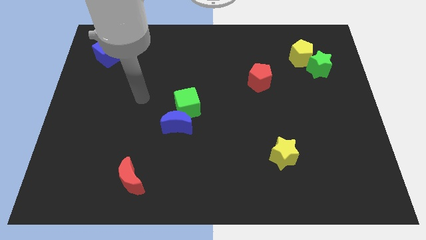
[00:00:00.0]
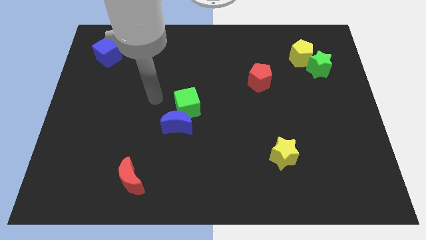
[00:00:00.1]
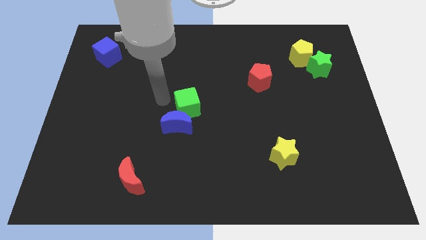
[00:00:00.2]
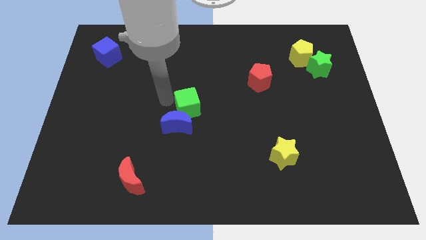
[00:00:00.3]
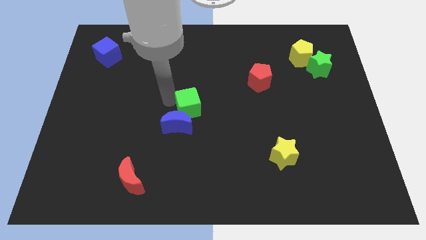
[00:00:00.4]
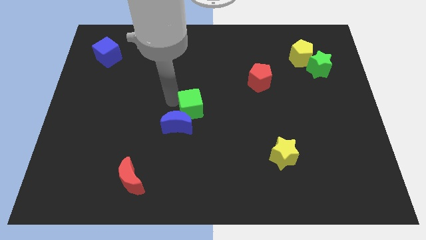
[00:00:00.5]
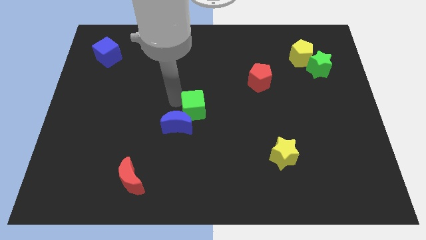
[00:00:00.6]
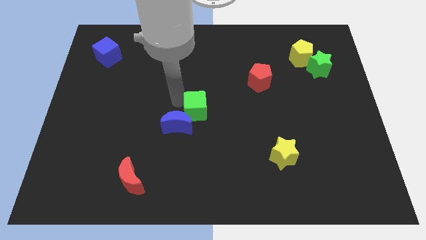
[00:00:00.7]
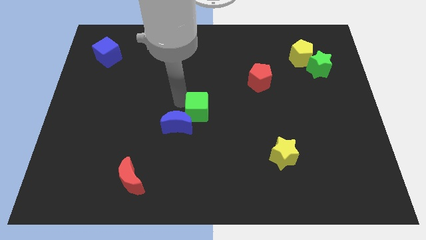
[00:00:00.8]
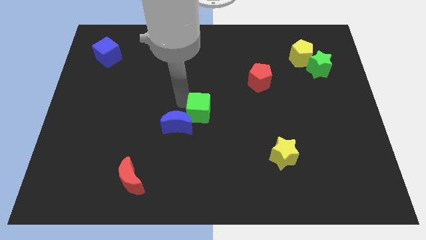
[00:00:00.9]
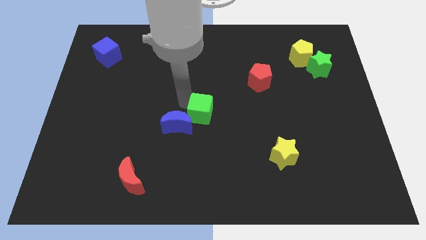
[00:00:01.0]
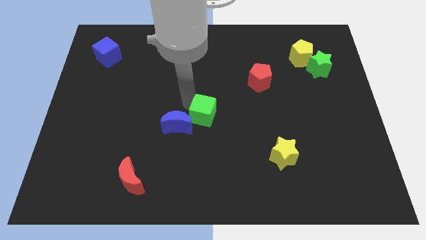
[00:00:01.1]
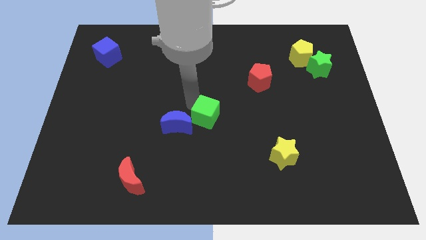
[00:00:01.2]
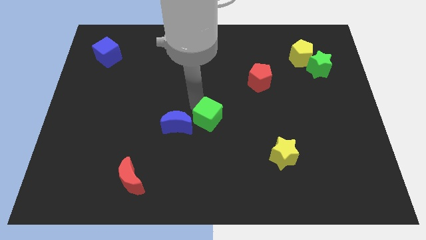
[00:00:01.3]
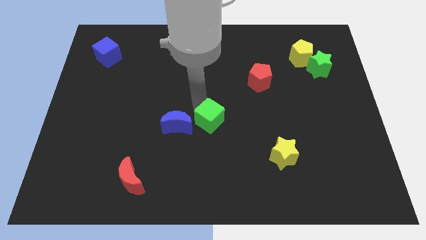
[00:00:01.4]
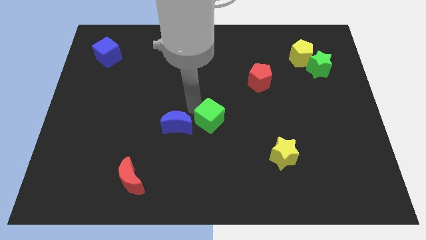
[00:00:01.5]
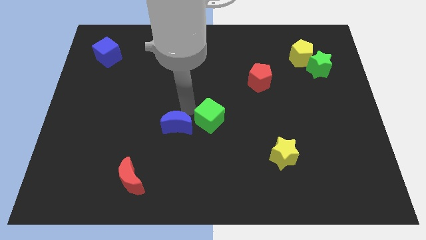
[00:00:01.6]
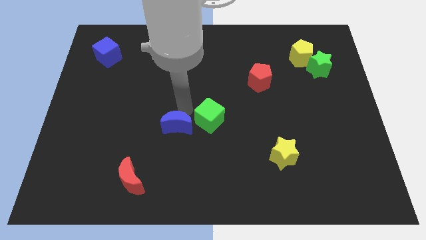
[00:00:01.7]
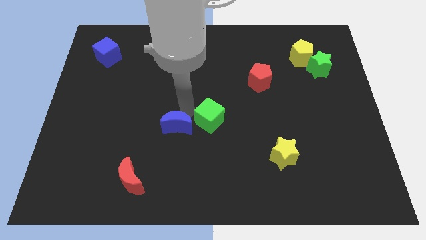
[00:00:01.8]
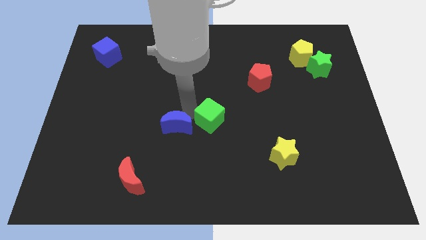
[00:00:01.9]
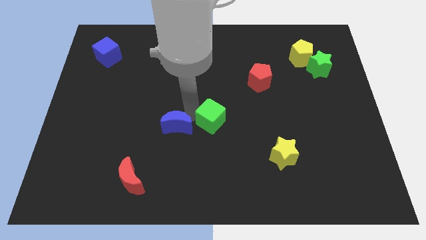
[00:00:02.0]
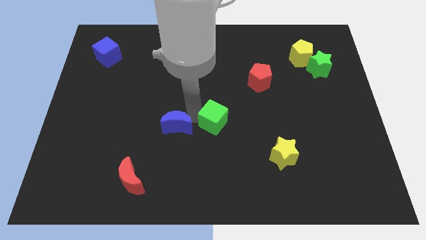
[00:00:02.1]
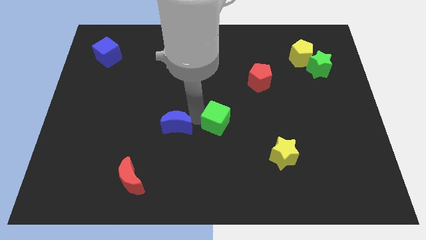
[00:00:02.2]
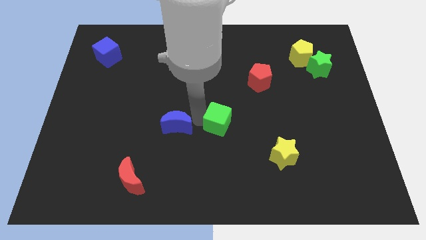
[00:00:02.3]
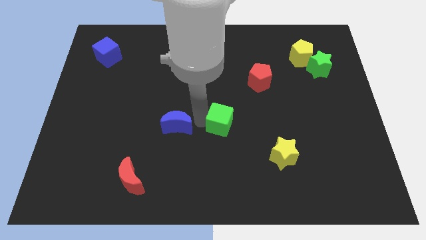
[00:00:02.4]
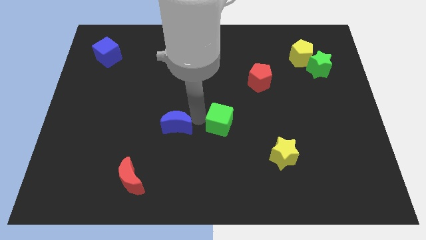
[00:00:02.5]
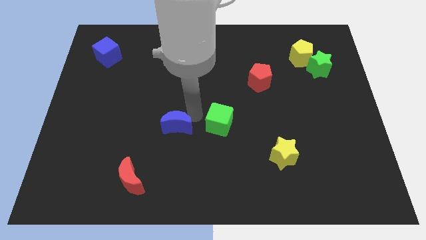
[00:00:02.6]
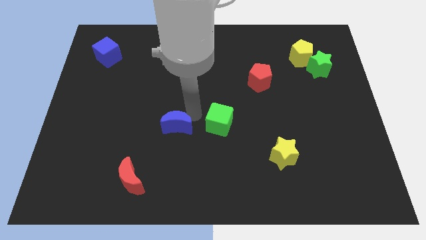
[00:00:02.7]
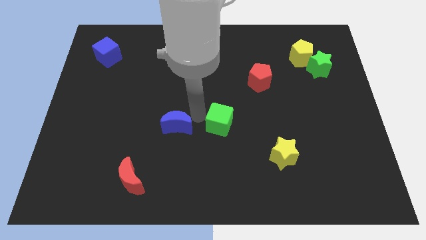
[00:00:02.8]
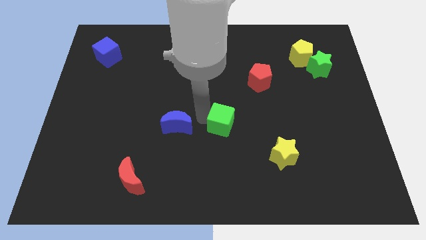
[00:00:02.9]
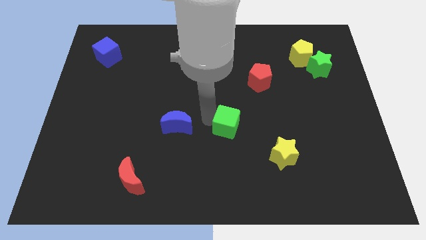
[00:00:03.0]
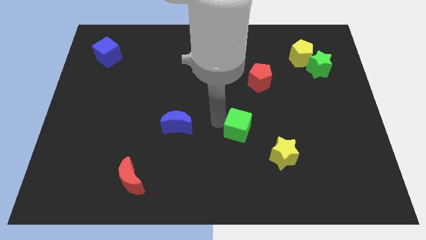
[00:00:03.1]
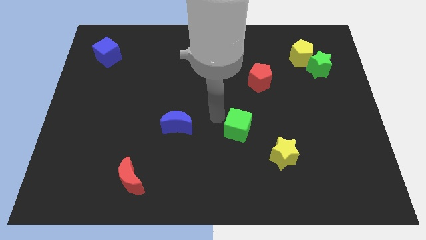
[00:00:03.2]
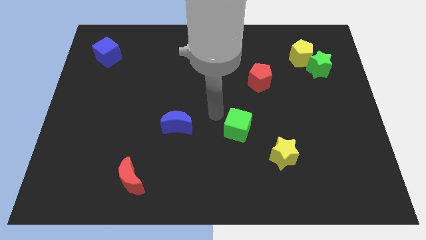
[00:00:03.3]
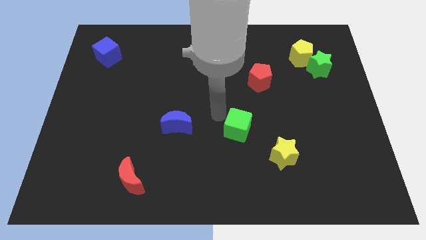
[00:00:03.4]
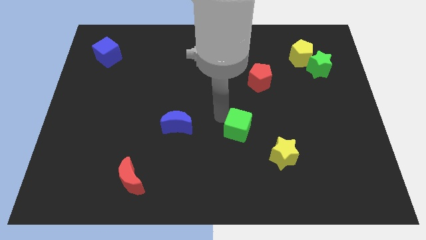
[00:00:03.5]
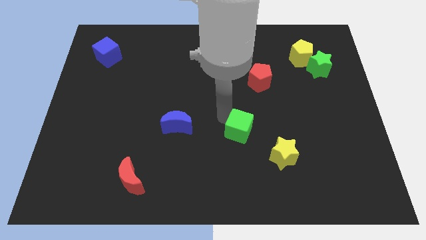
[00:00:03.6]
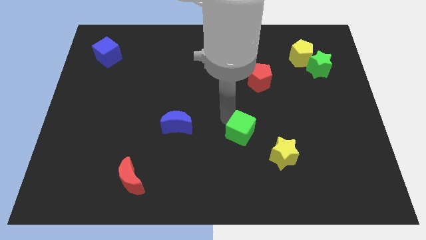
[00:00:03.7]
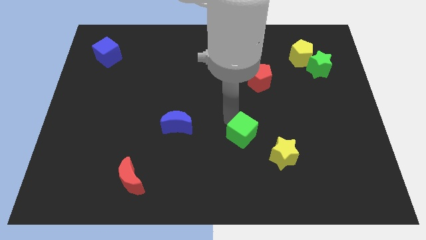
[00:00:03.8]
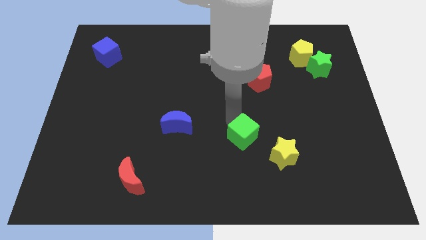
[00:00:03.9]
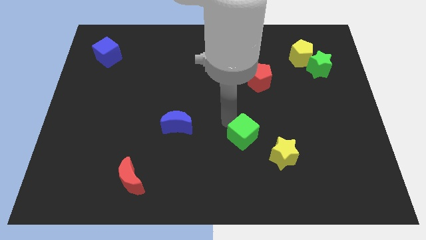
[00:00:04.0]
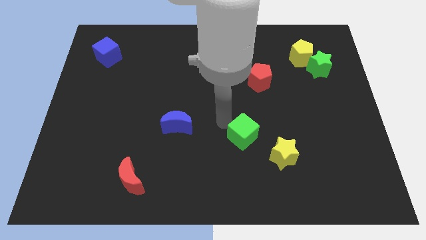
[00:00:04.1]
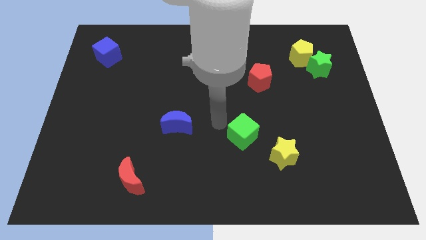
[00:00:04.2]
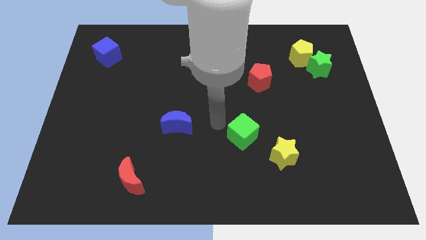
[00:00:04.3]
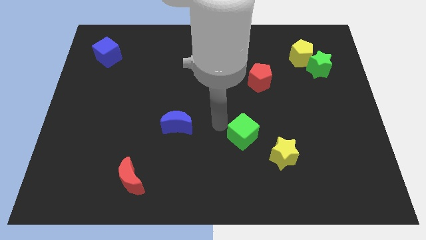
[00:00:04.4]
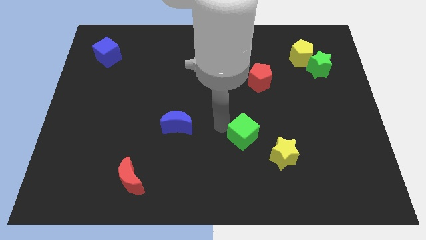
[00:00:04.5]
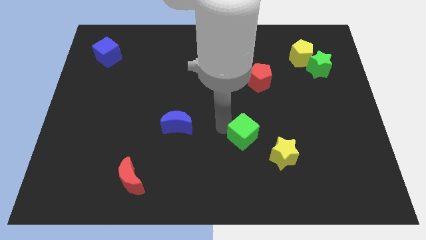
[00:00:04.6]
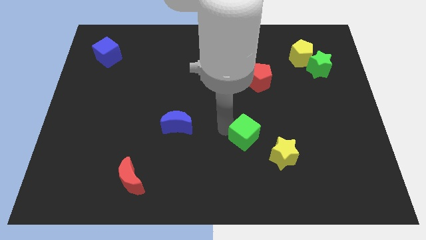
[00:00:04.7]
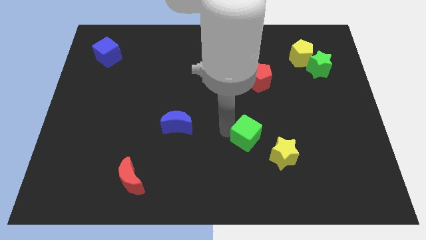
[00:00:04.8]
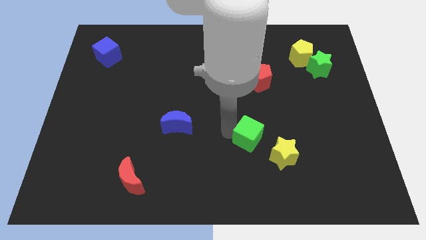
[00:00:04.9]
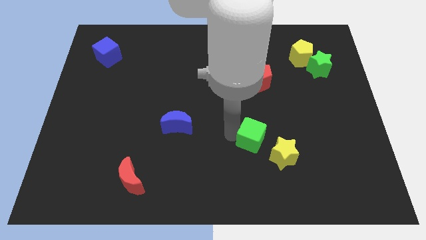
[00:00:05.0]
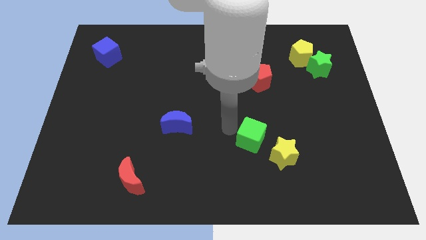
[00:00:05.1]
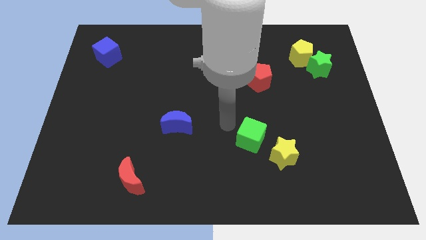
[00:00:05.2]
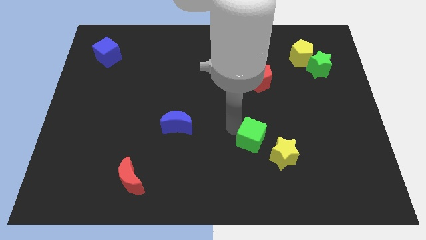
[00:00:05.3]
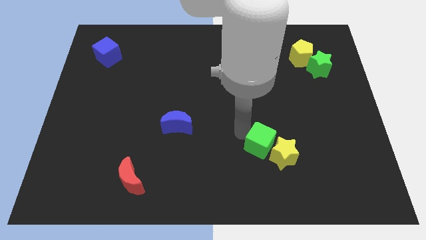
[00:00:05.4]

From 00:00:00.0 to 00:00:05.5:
put the green cube close to the yellow star

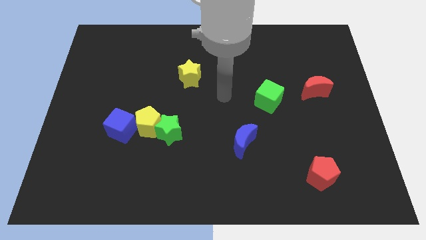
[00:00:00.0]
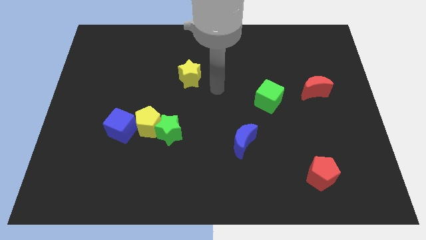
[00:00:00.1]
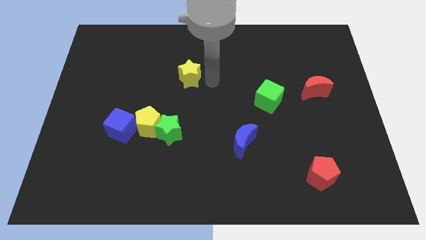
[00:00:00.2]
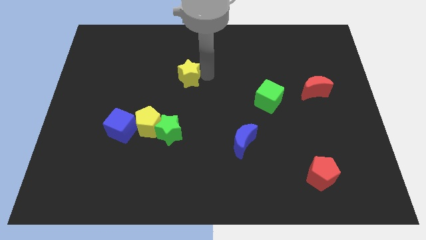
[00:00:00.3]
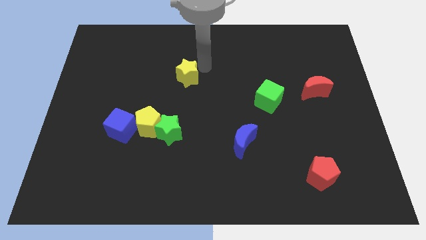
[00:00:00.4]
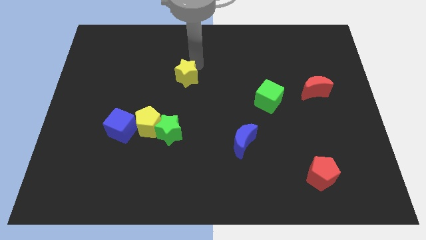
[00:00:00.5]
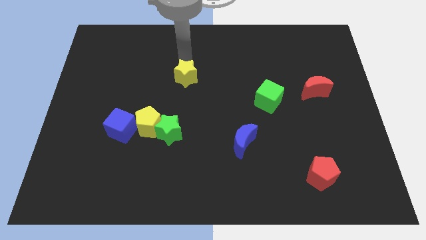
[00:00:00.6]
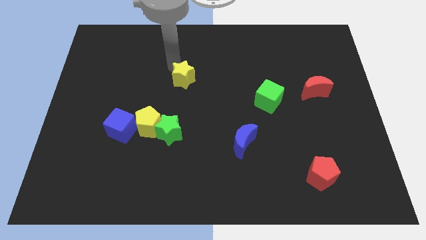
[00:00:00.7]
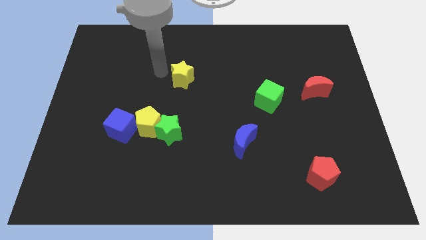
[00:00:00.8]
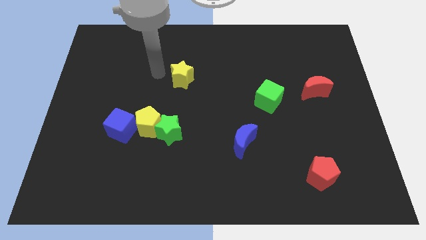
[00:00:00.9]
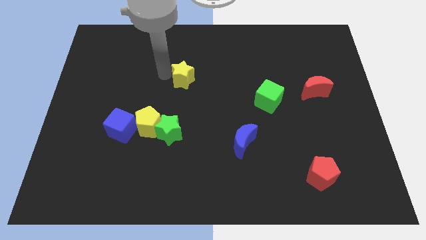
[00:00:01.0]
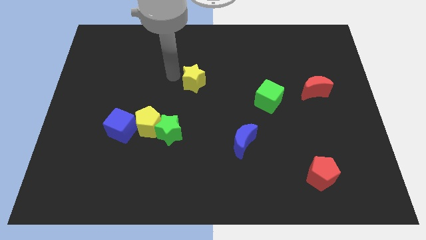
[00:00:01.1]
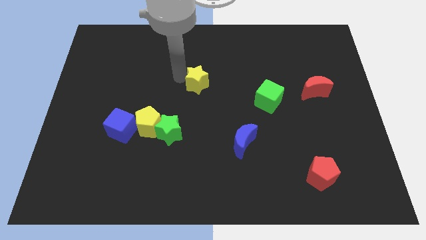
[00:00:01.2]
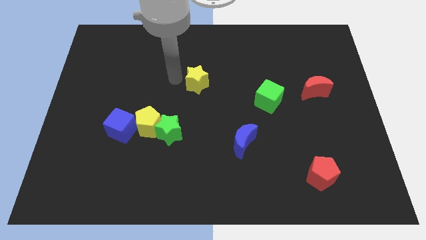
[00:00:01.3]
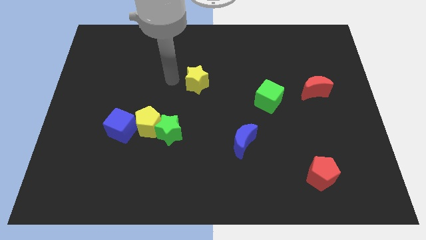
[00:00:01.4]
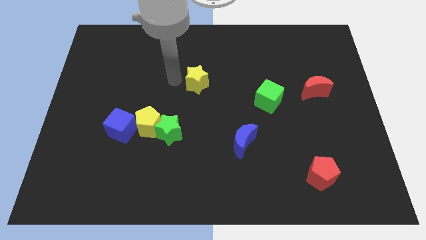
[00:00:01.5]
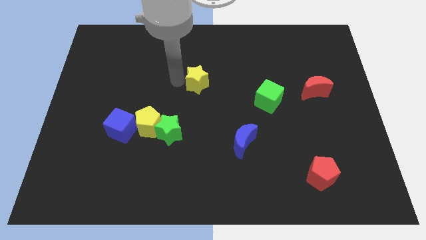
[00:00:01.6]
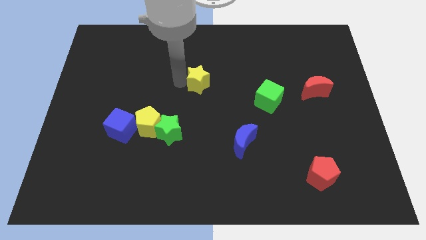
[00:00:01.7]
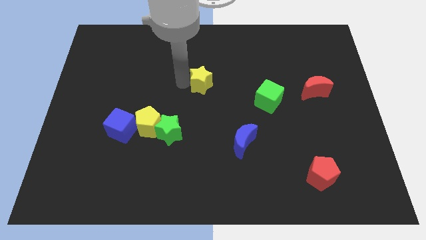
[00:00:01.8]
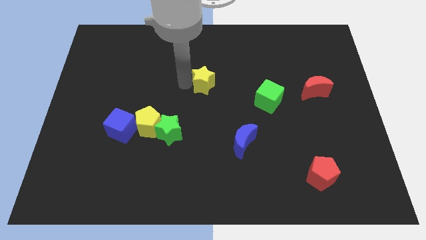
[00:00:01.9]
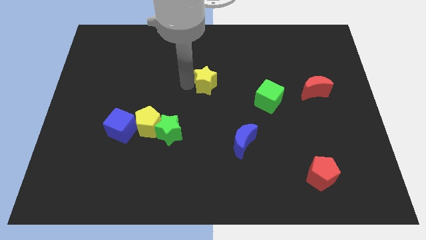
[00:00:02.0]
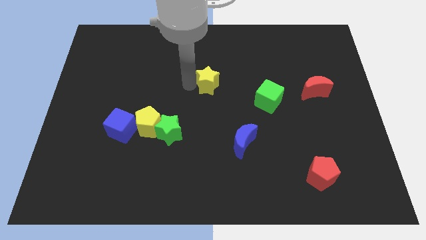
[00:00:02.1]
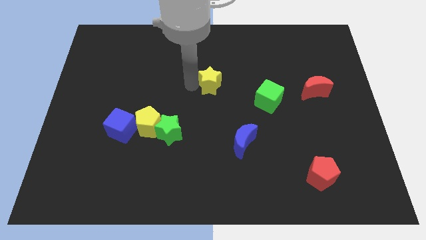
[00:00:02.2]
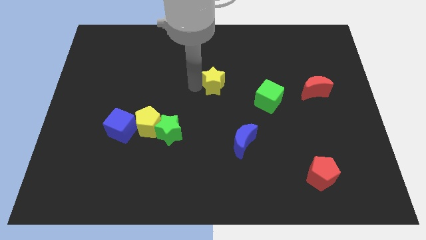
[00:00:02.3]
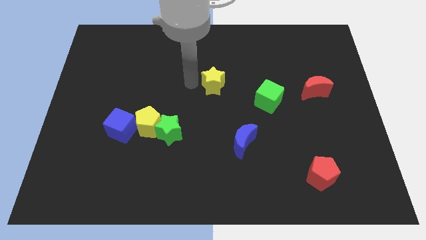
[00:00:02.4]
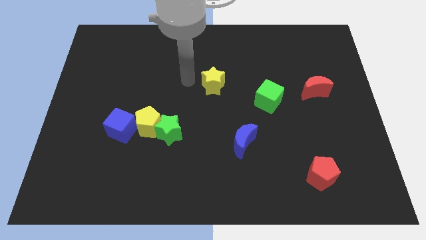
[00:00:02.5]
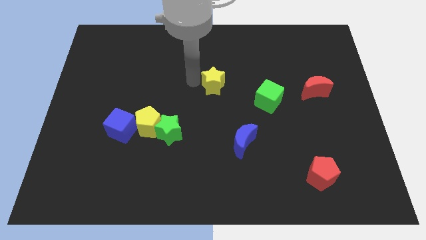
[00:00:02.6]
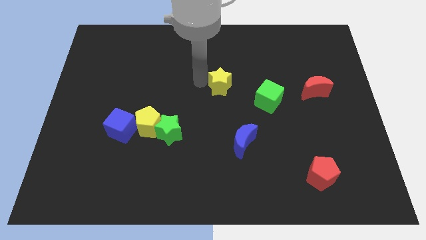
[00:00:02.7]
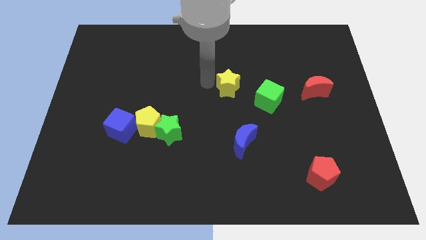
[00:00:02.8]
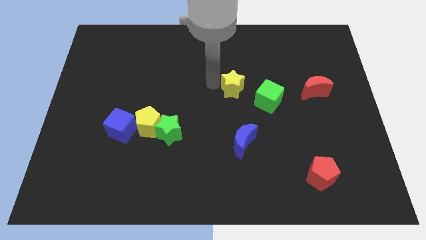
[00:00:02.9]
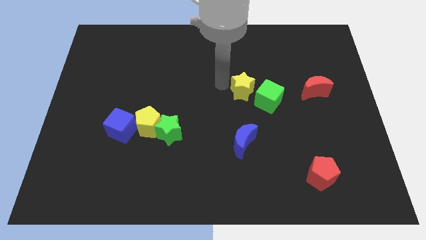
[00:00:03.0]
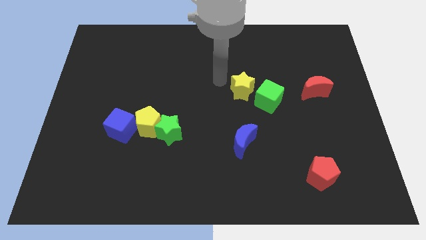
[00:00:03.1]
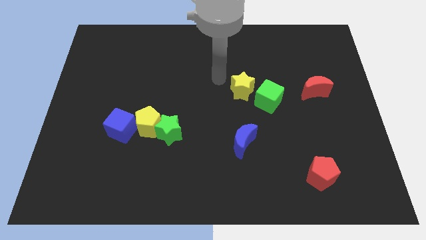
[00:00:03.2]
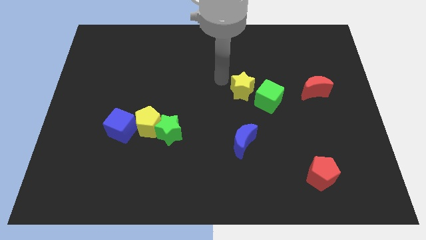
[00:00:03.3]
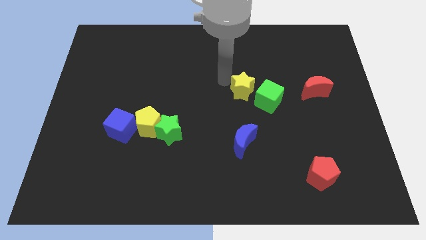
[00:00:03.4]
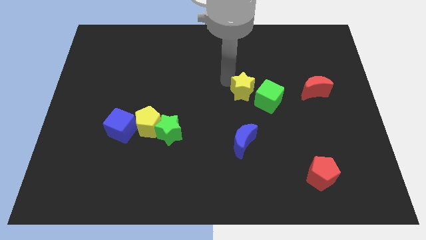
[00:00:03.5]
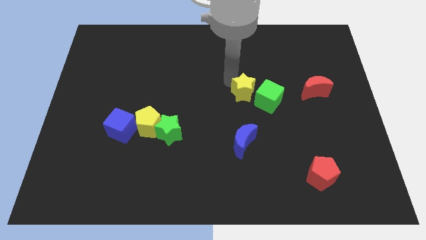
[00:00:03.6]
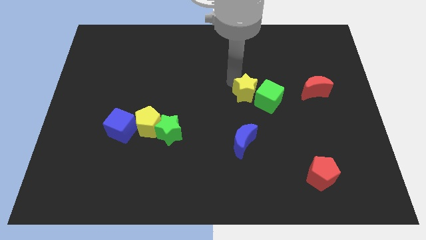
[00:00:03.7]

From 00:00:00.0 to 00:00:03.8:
slide the yellow star close to the green cube
